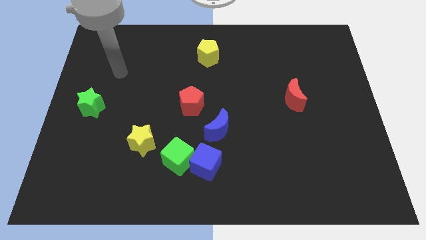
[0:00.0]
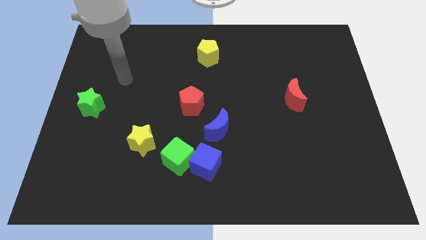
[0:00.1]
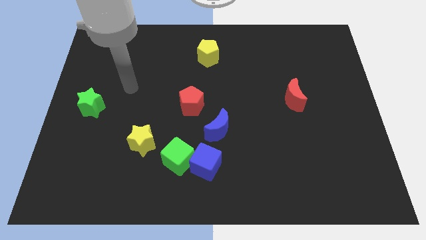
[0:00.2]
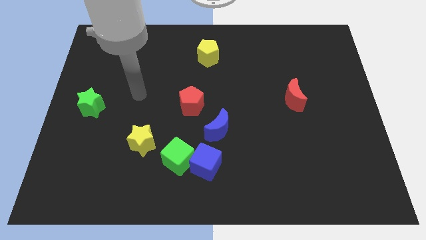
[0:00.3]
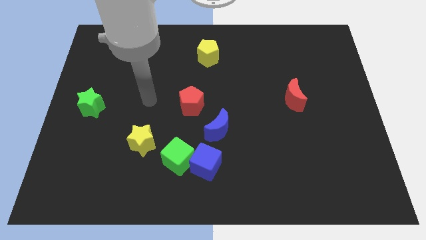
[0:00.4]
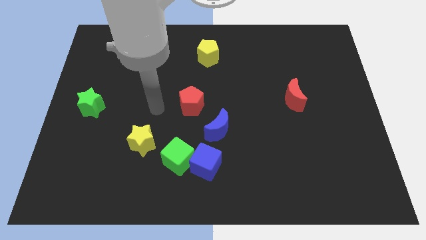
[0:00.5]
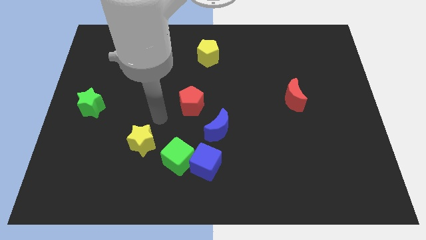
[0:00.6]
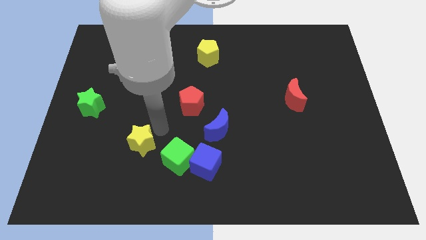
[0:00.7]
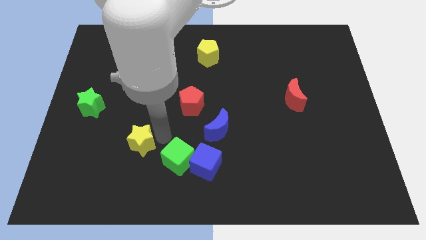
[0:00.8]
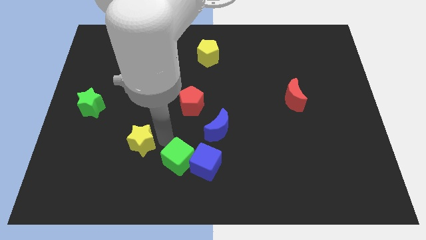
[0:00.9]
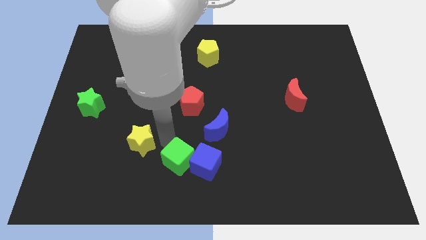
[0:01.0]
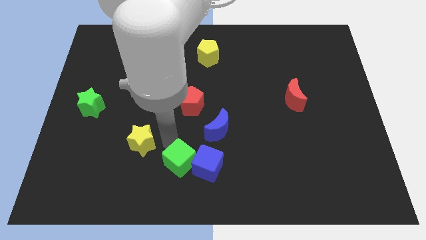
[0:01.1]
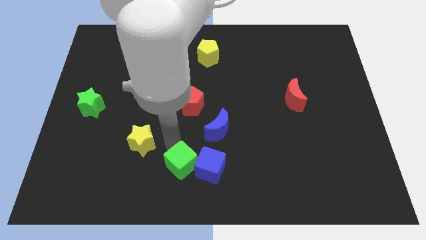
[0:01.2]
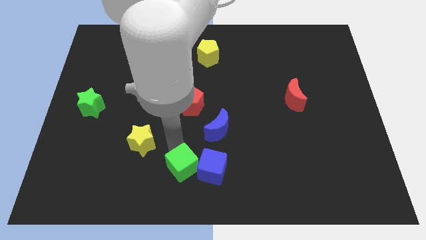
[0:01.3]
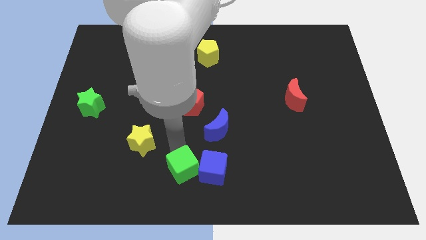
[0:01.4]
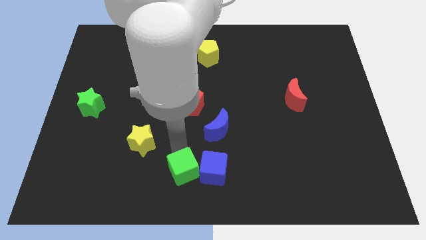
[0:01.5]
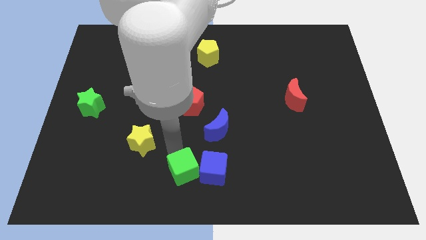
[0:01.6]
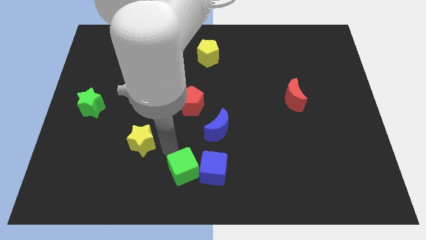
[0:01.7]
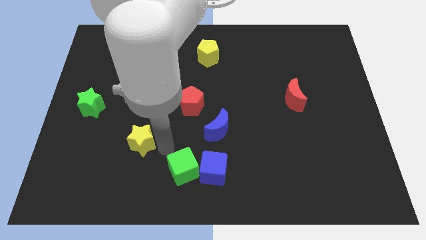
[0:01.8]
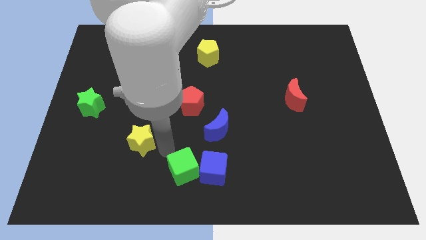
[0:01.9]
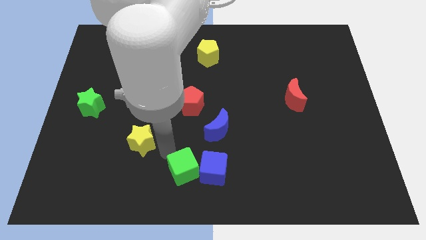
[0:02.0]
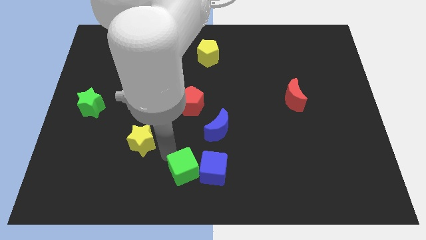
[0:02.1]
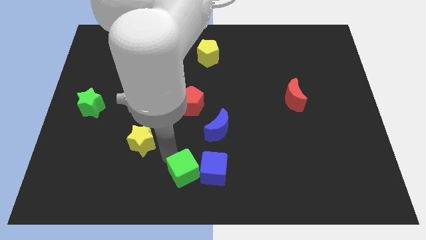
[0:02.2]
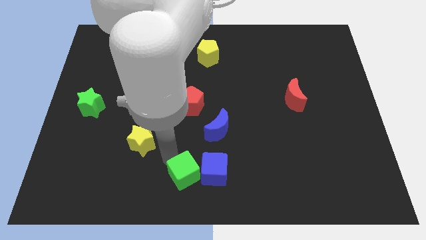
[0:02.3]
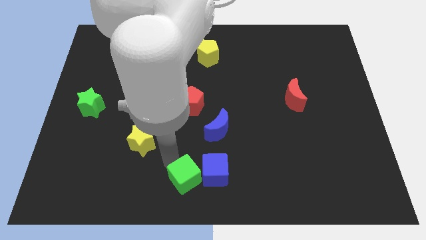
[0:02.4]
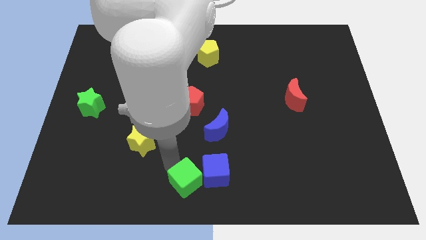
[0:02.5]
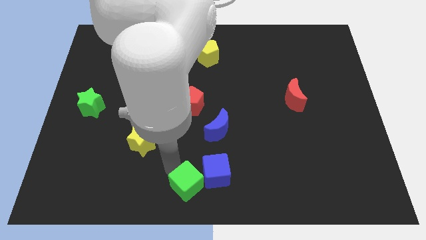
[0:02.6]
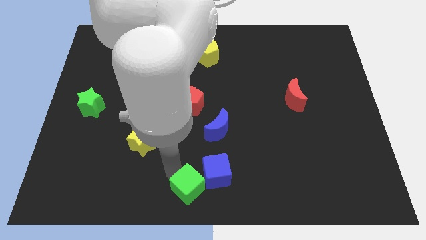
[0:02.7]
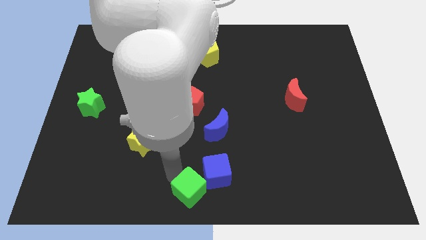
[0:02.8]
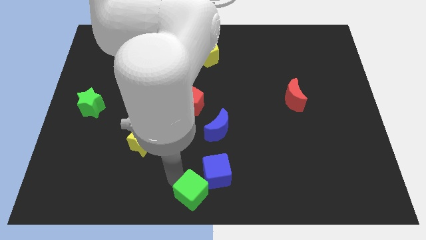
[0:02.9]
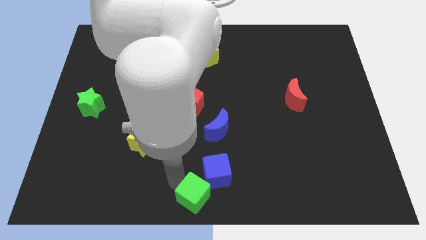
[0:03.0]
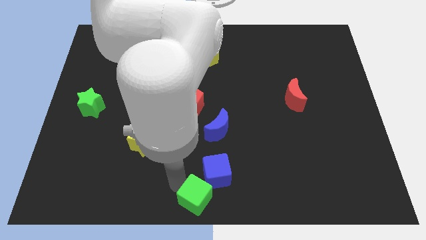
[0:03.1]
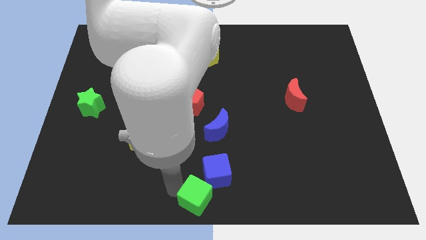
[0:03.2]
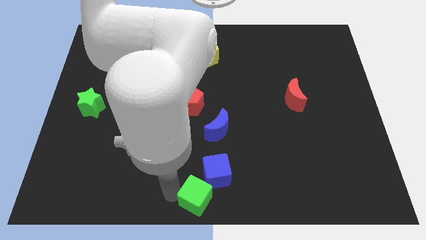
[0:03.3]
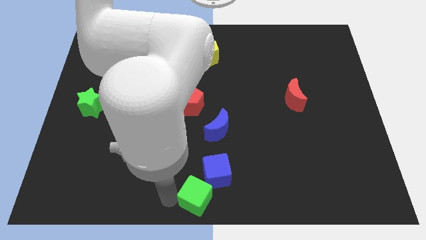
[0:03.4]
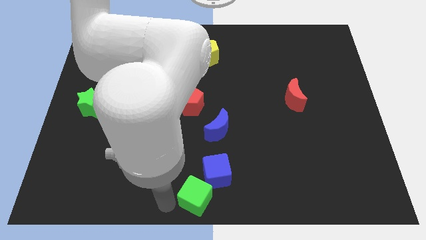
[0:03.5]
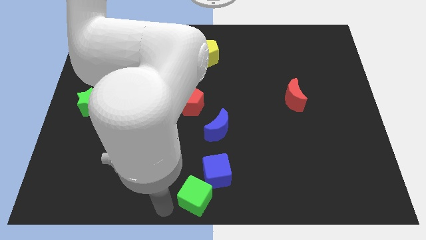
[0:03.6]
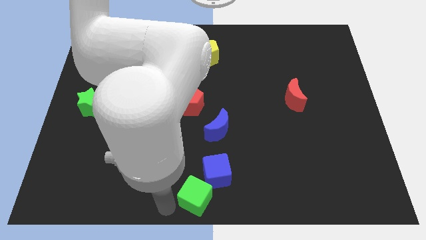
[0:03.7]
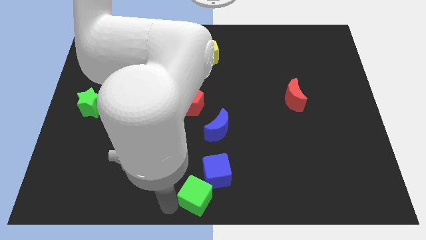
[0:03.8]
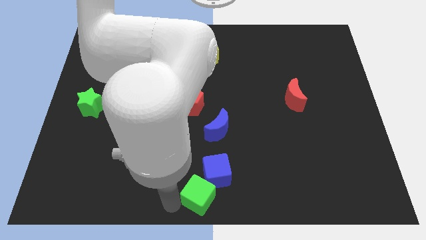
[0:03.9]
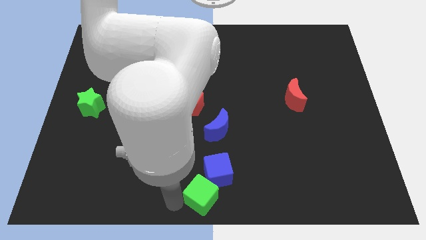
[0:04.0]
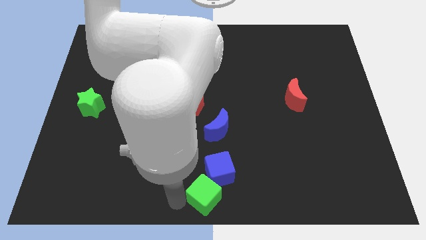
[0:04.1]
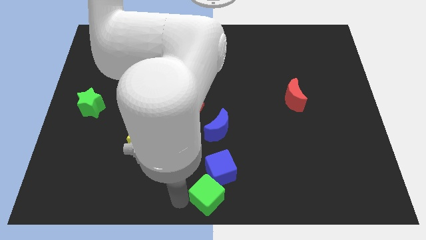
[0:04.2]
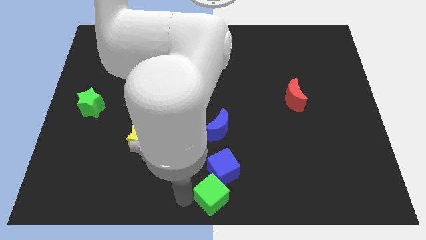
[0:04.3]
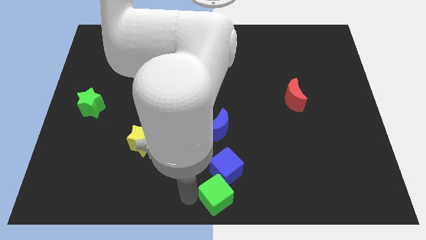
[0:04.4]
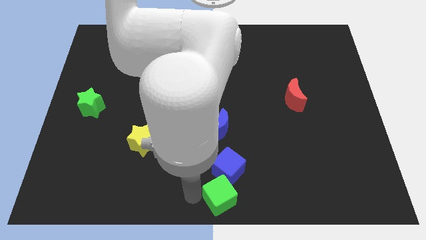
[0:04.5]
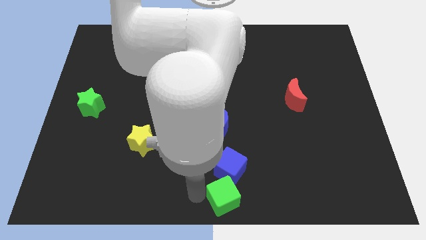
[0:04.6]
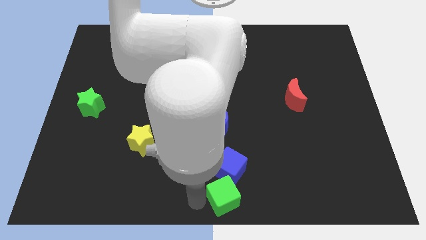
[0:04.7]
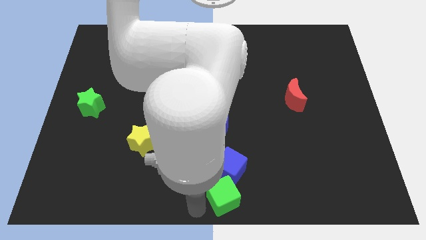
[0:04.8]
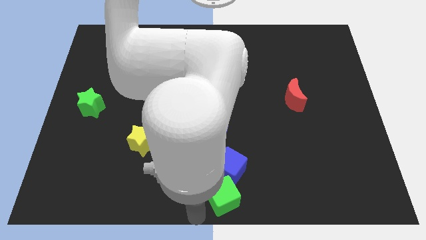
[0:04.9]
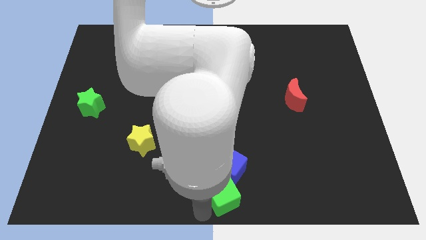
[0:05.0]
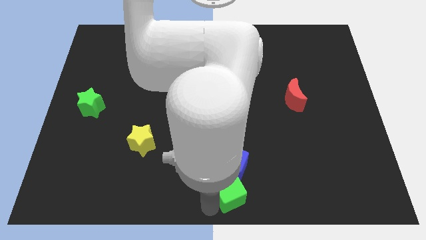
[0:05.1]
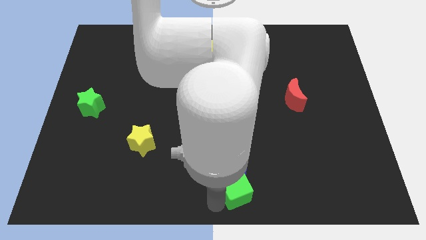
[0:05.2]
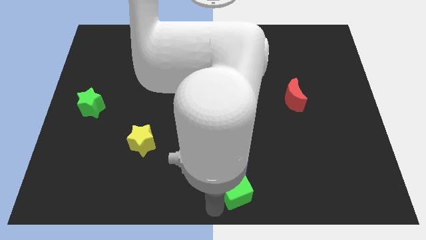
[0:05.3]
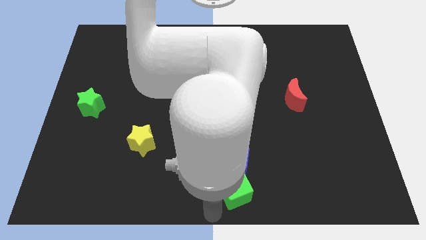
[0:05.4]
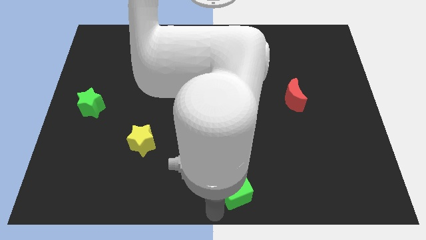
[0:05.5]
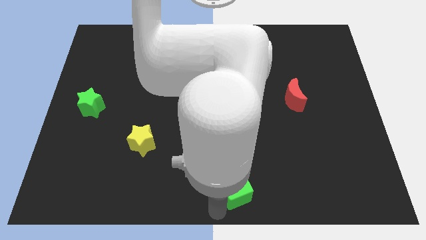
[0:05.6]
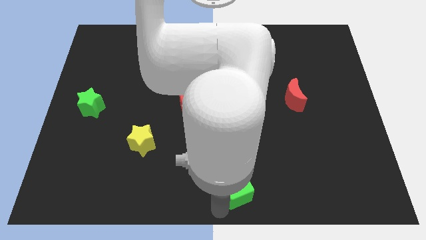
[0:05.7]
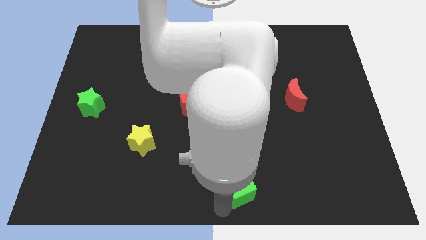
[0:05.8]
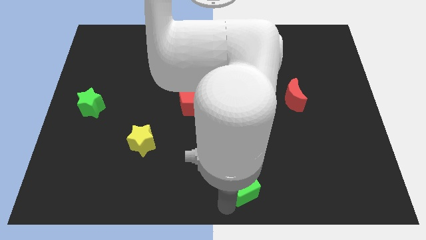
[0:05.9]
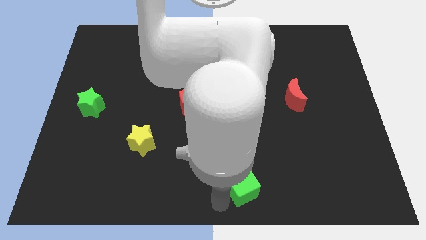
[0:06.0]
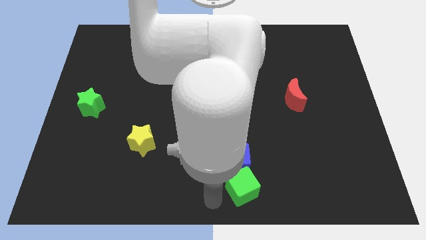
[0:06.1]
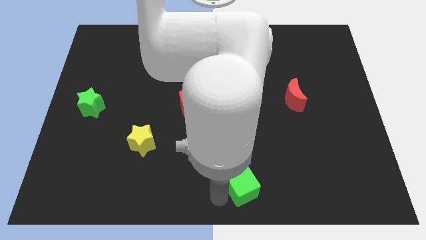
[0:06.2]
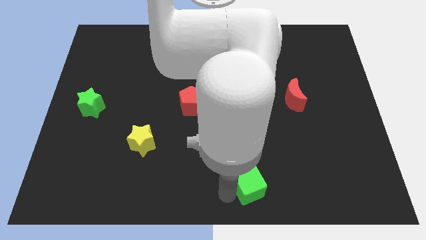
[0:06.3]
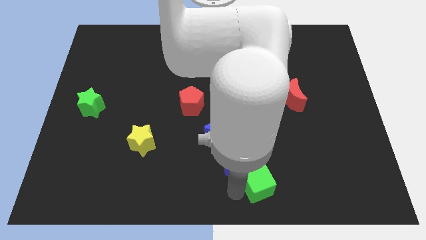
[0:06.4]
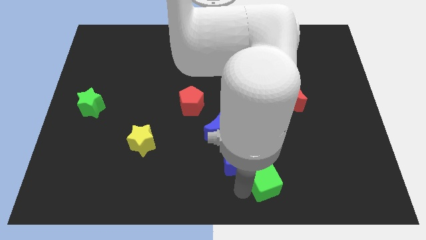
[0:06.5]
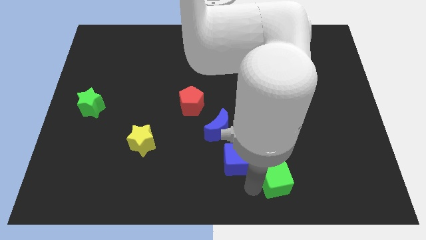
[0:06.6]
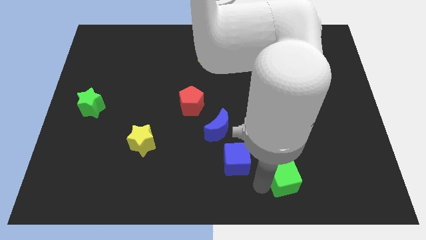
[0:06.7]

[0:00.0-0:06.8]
push the green cube to the right

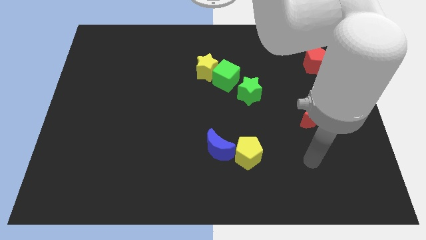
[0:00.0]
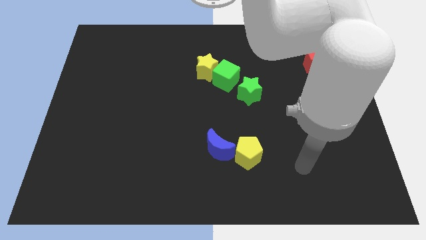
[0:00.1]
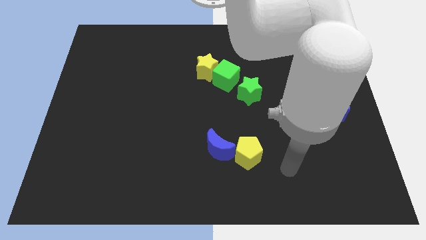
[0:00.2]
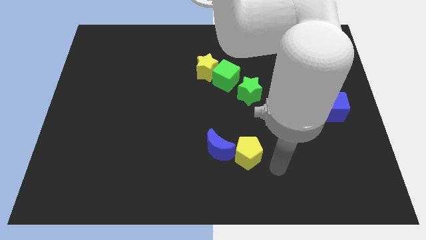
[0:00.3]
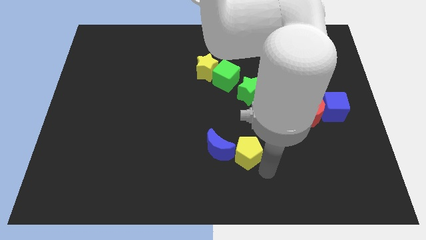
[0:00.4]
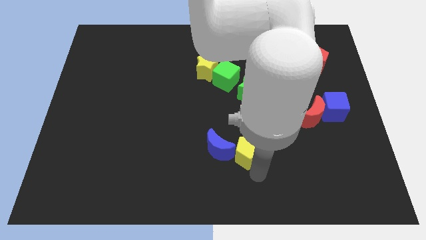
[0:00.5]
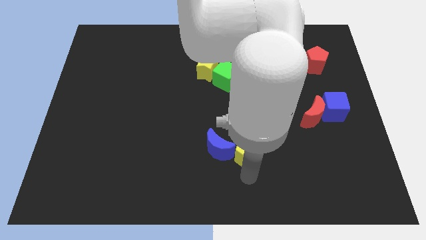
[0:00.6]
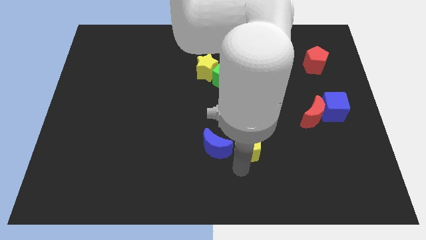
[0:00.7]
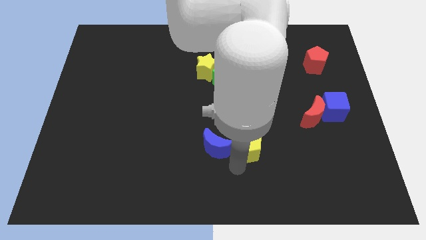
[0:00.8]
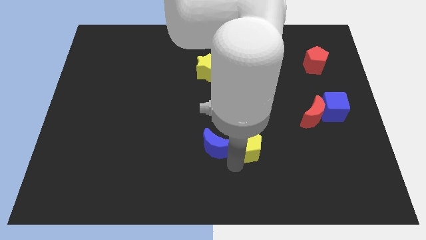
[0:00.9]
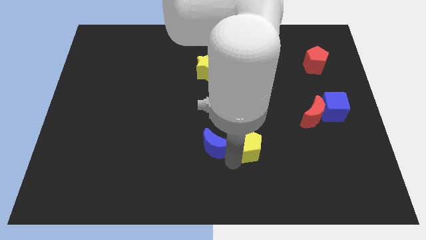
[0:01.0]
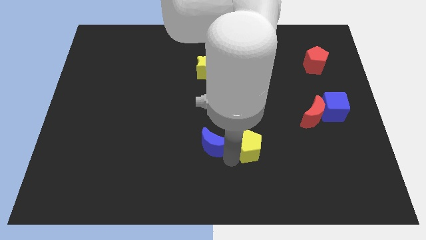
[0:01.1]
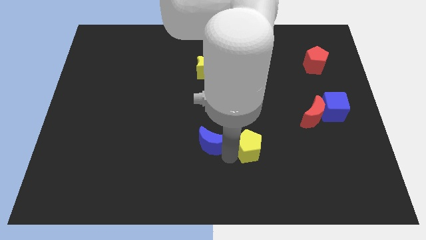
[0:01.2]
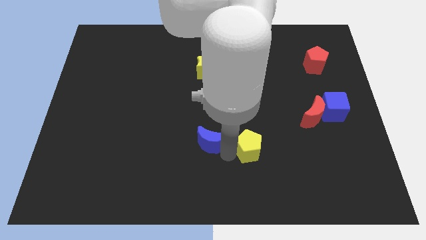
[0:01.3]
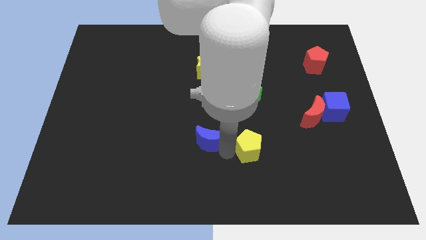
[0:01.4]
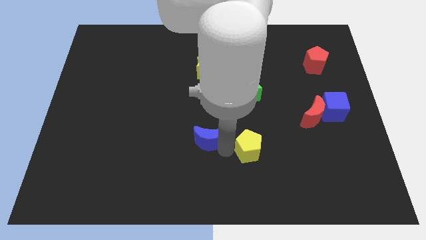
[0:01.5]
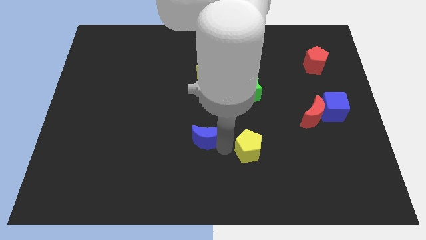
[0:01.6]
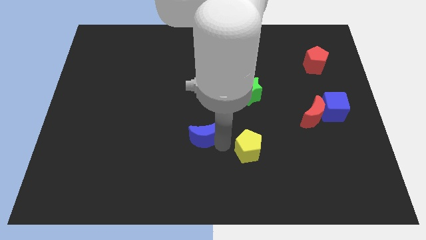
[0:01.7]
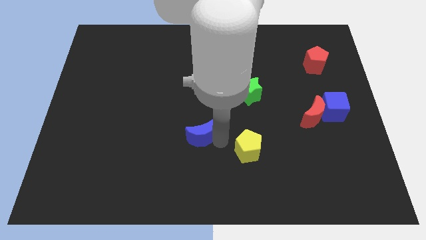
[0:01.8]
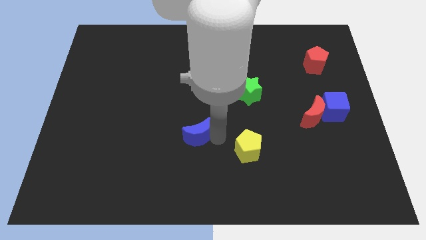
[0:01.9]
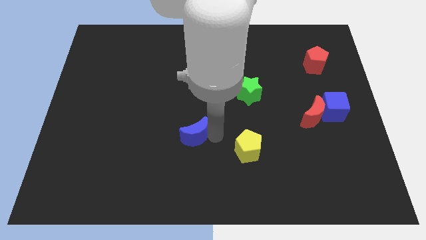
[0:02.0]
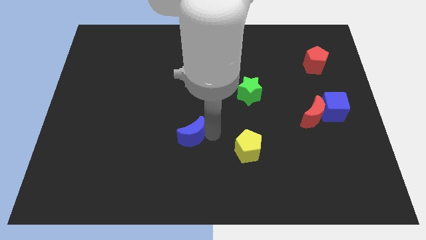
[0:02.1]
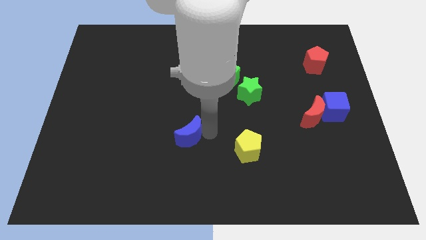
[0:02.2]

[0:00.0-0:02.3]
slide the blue moon up and to the left diagonally a little bit
